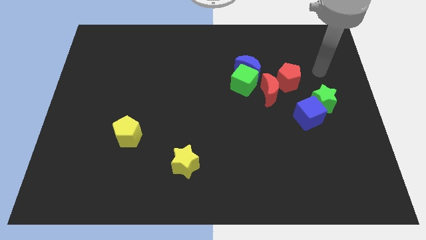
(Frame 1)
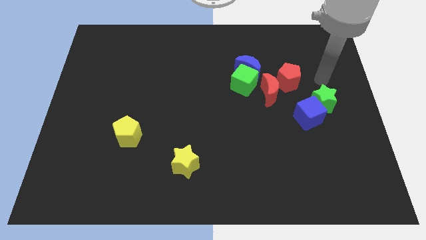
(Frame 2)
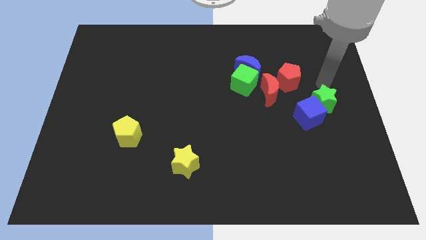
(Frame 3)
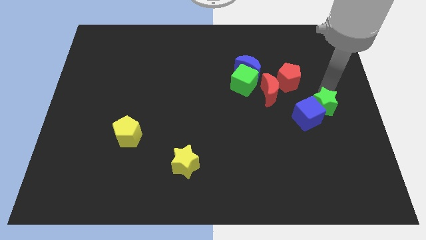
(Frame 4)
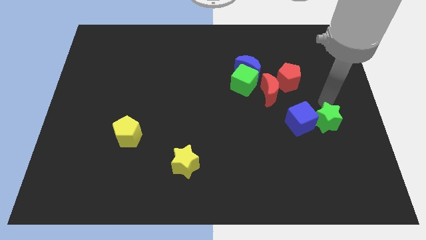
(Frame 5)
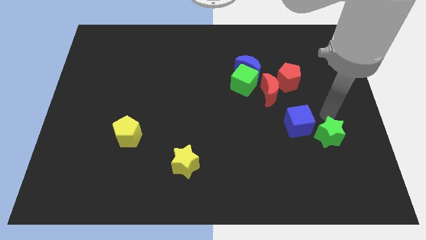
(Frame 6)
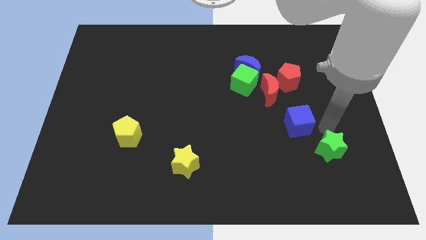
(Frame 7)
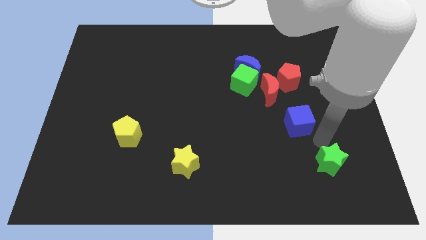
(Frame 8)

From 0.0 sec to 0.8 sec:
pull the blue cube apart from the green star

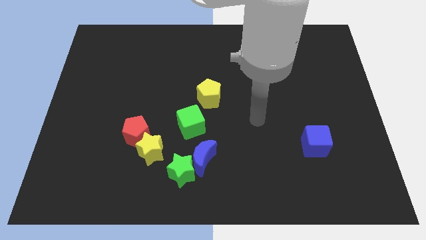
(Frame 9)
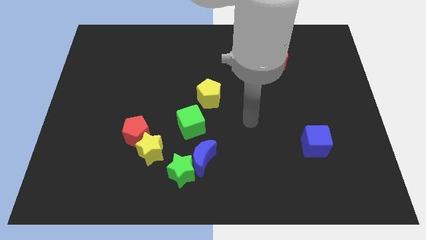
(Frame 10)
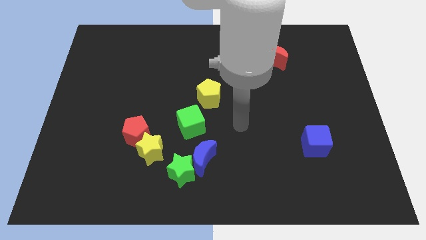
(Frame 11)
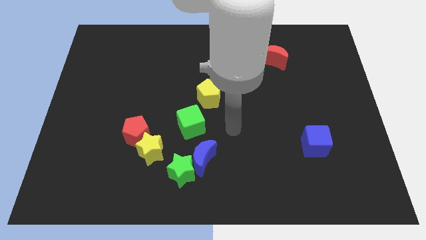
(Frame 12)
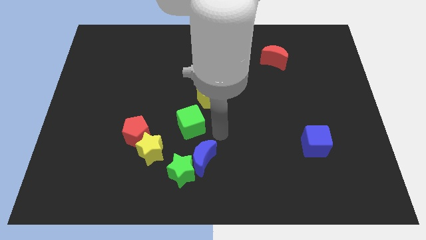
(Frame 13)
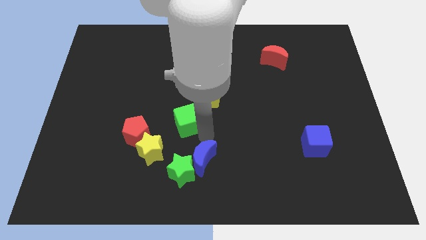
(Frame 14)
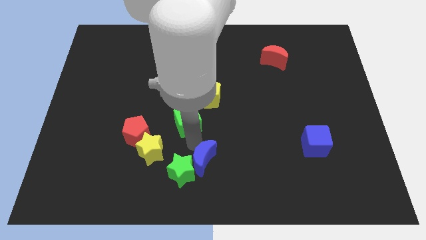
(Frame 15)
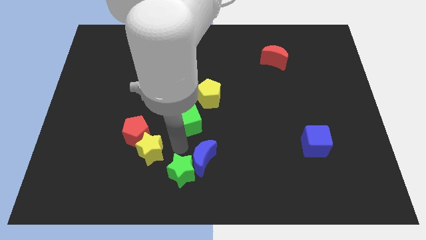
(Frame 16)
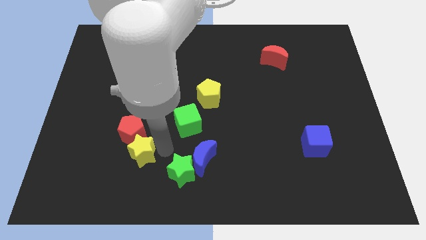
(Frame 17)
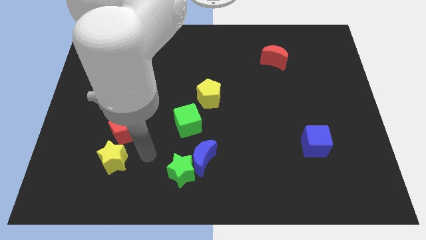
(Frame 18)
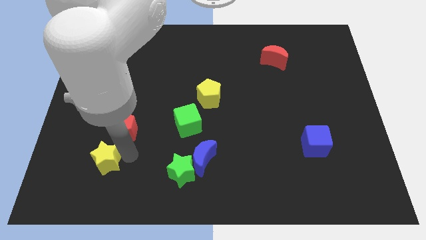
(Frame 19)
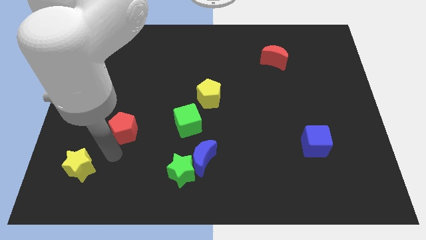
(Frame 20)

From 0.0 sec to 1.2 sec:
move the red pentagon away from the yellow star

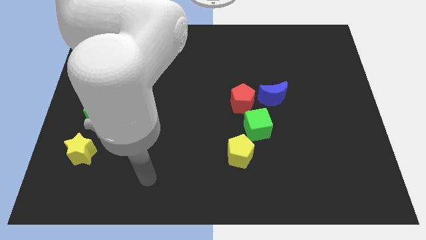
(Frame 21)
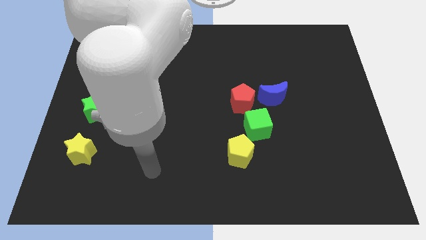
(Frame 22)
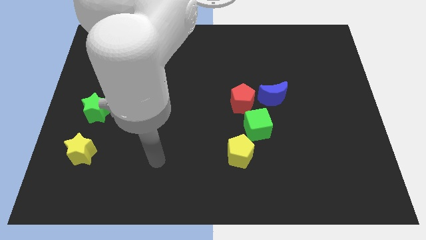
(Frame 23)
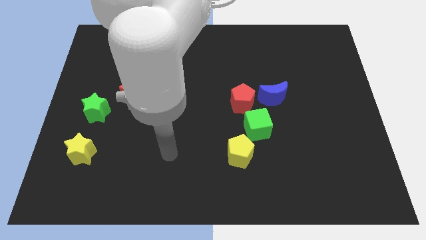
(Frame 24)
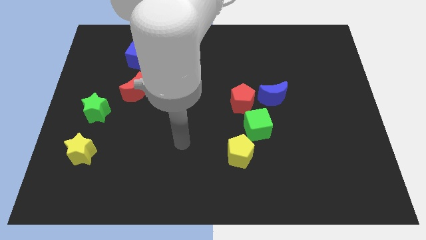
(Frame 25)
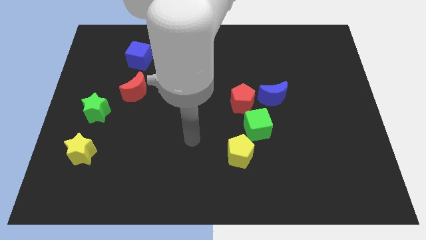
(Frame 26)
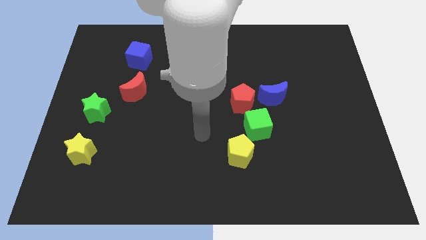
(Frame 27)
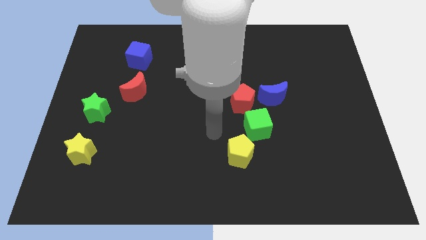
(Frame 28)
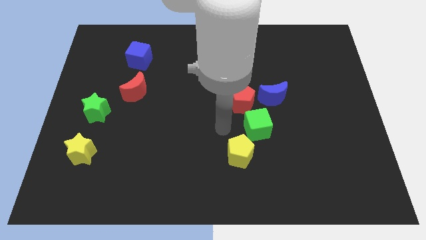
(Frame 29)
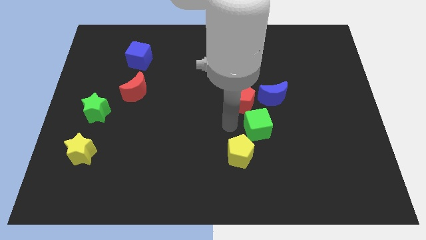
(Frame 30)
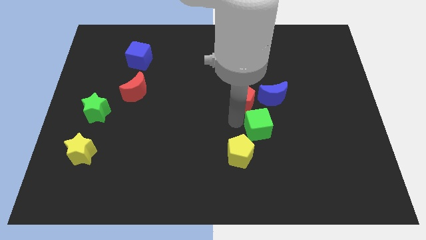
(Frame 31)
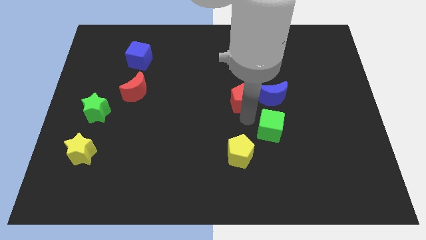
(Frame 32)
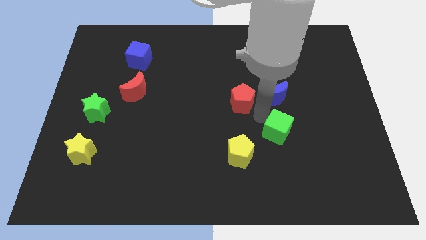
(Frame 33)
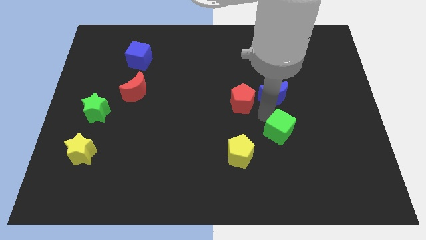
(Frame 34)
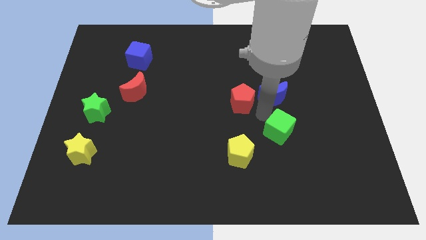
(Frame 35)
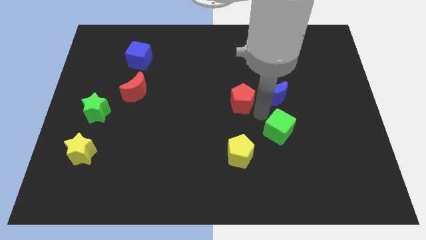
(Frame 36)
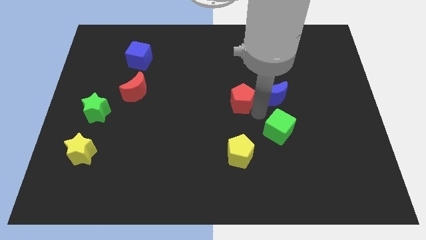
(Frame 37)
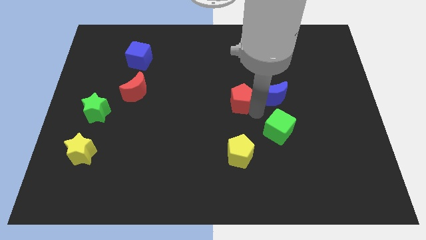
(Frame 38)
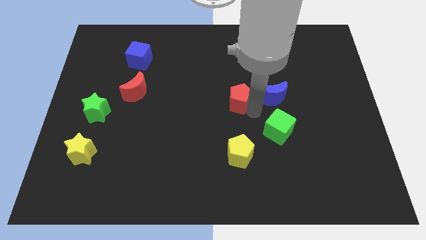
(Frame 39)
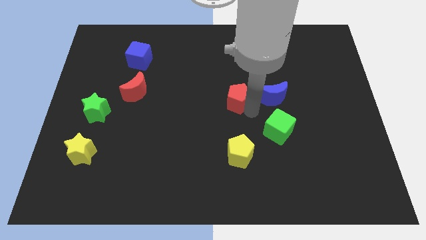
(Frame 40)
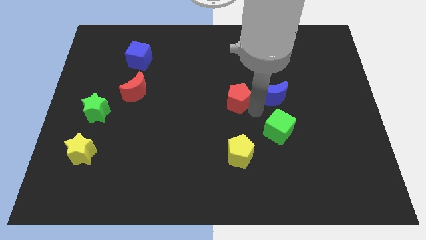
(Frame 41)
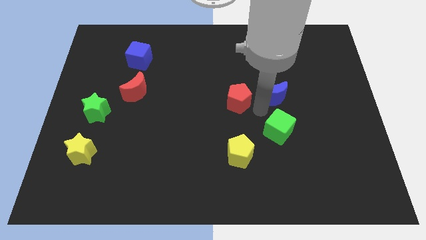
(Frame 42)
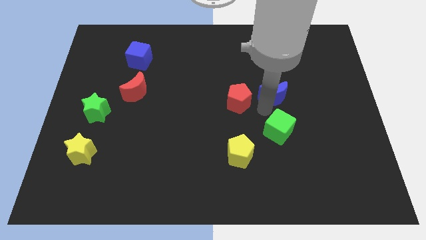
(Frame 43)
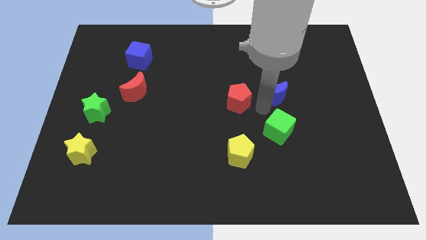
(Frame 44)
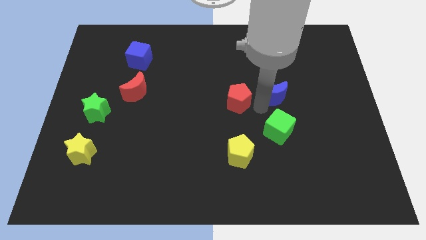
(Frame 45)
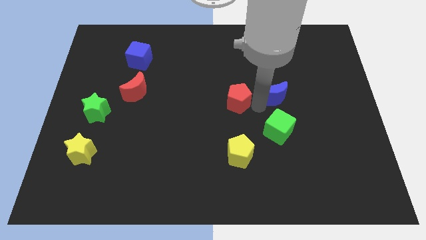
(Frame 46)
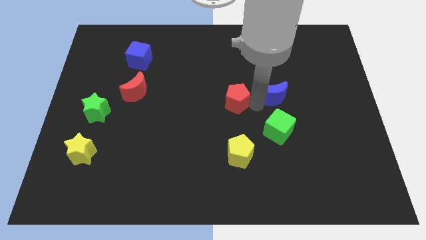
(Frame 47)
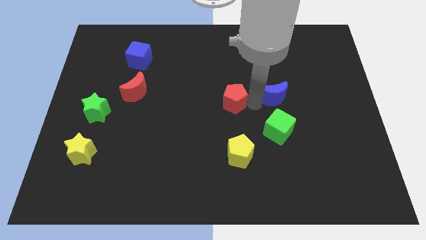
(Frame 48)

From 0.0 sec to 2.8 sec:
pull the red pentagon apart from the blue moon and green cube

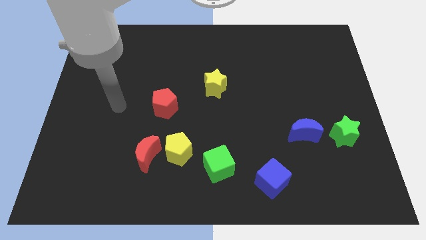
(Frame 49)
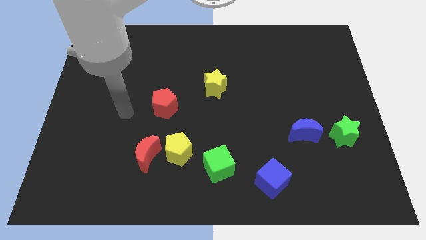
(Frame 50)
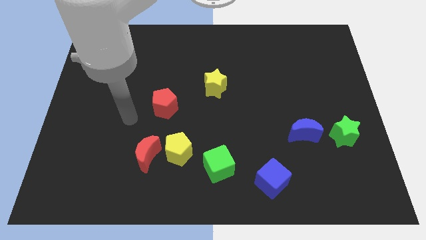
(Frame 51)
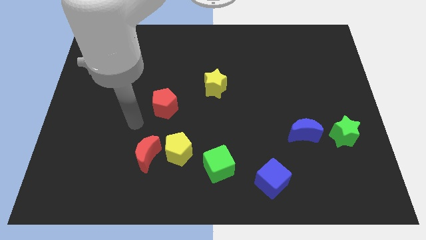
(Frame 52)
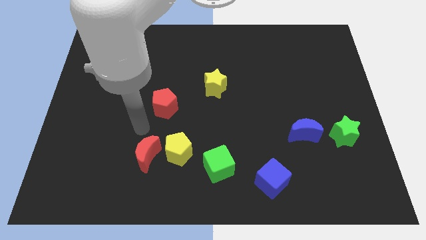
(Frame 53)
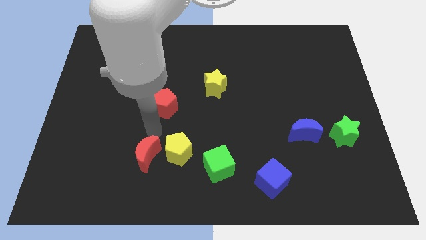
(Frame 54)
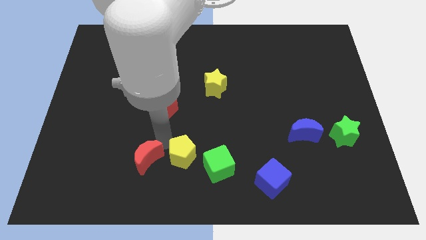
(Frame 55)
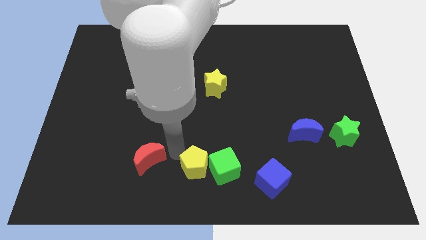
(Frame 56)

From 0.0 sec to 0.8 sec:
move the red moon away from the yellow pentagon

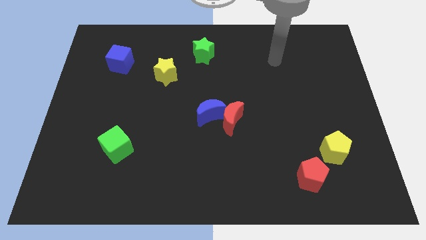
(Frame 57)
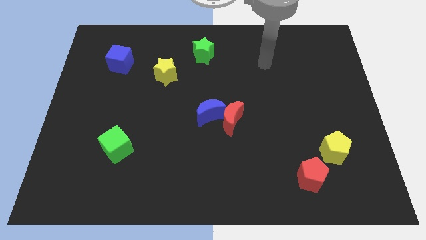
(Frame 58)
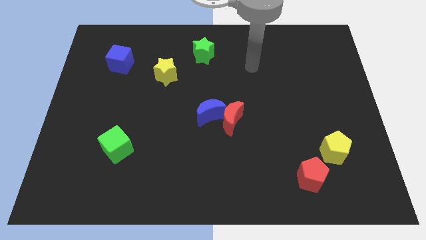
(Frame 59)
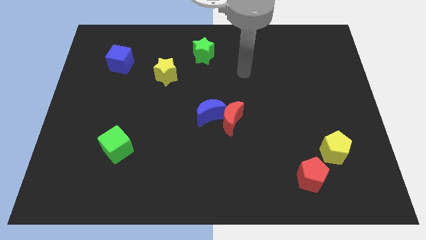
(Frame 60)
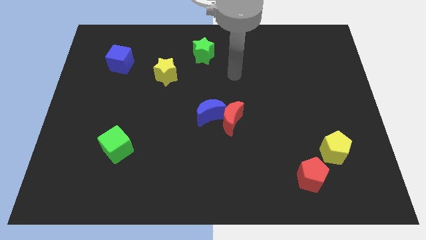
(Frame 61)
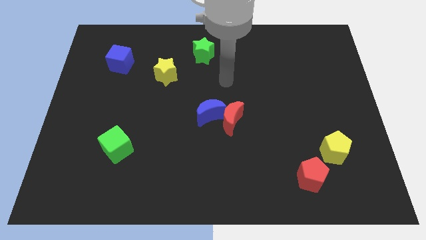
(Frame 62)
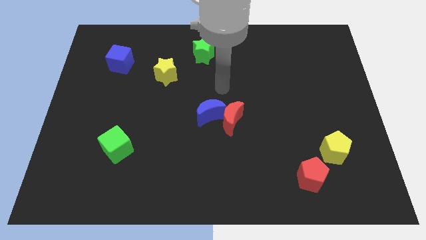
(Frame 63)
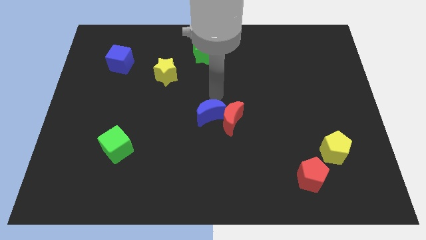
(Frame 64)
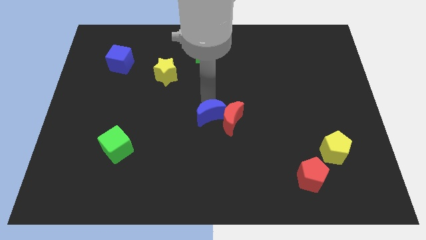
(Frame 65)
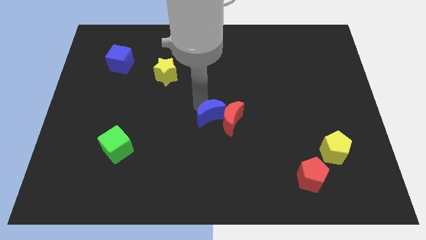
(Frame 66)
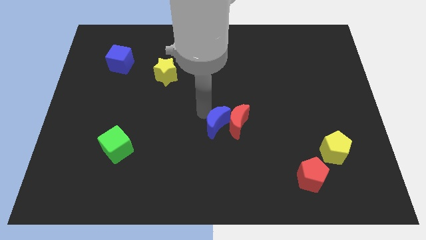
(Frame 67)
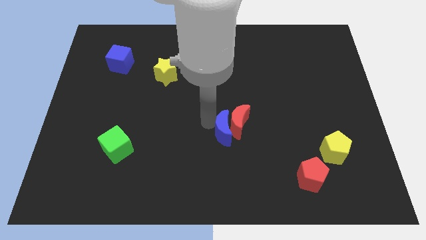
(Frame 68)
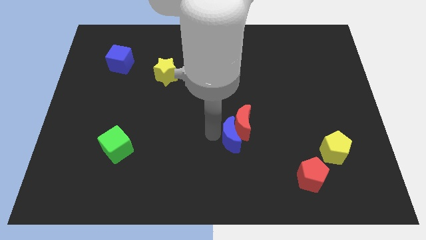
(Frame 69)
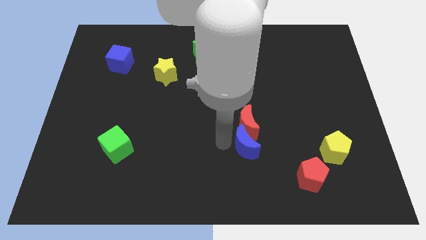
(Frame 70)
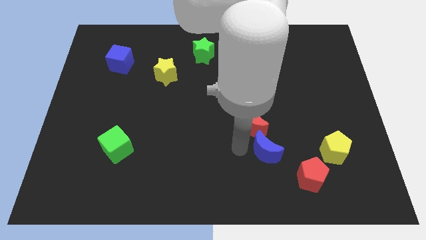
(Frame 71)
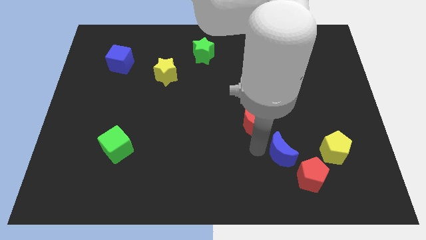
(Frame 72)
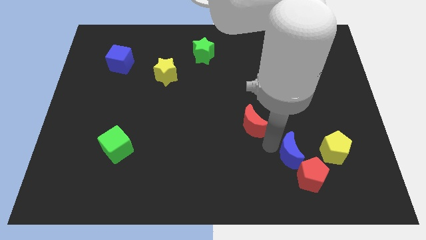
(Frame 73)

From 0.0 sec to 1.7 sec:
move the red moon away from the blue moon

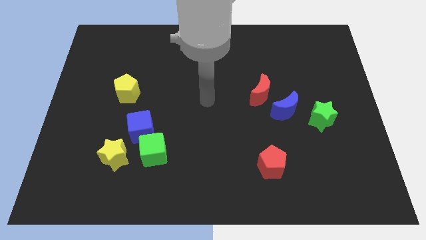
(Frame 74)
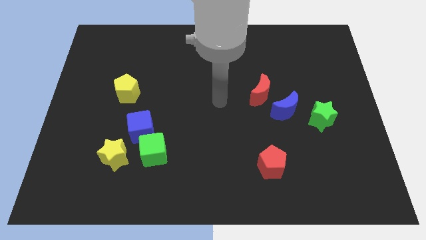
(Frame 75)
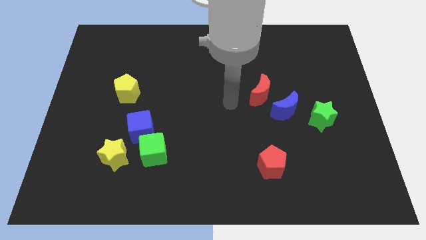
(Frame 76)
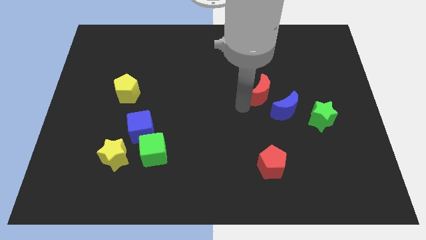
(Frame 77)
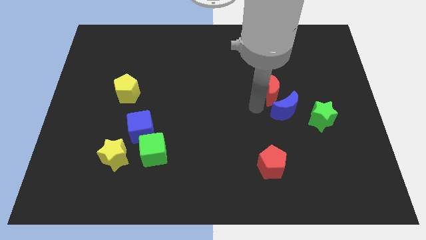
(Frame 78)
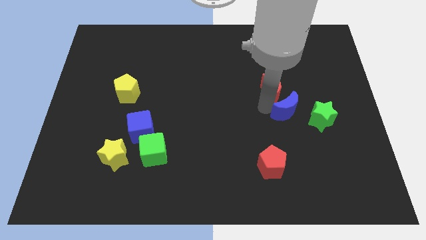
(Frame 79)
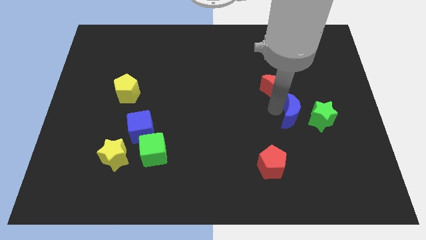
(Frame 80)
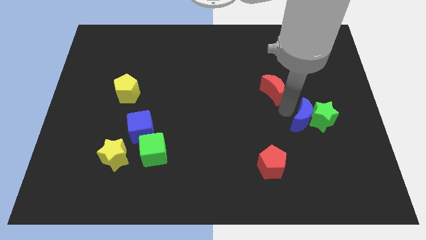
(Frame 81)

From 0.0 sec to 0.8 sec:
separate the red moon from the blue moon

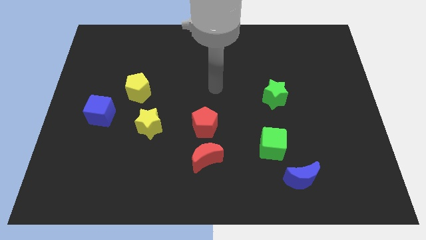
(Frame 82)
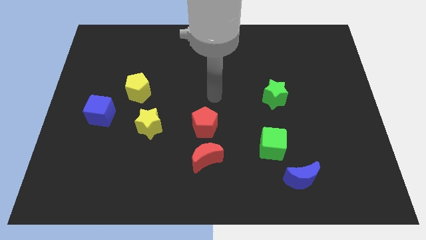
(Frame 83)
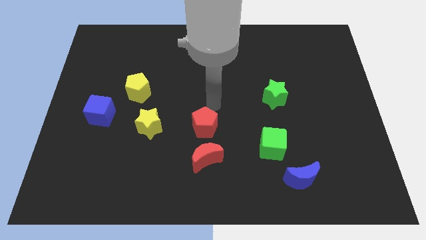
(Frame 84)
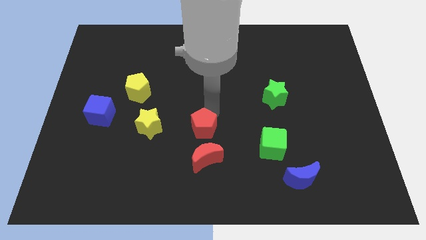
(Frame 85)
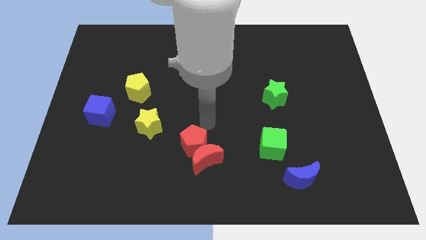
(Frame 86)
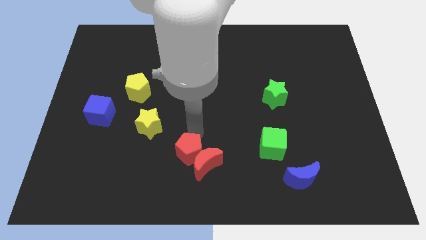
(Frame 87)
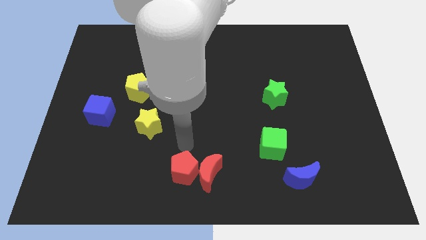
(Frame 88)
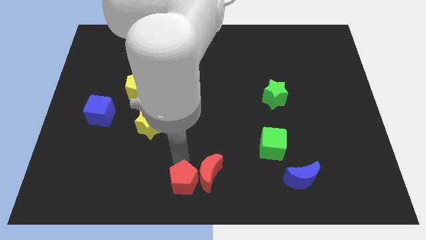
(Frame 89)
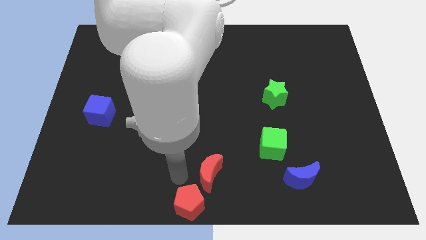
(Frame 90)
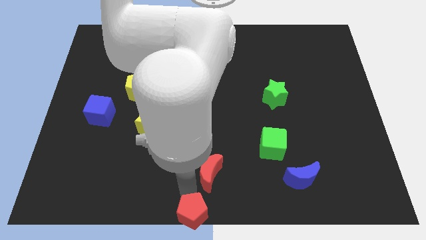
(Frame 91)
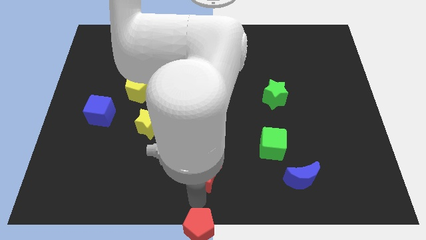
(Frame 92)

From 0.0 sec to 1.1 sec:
pull the red moon apart from the red pentagon
